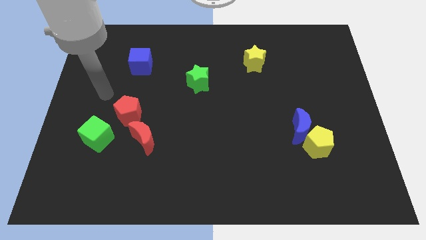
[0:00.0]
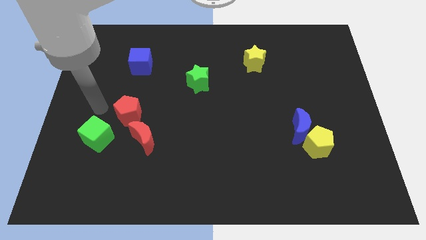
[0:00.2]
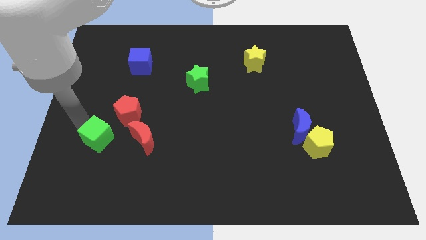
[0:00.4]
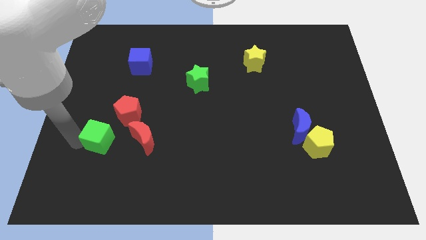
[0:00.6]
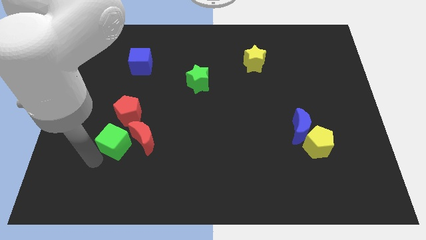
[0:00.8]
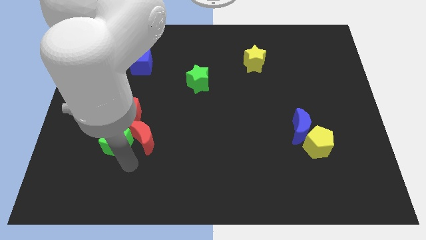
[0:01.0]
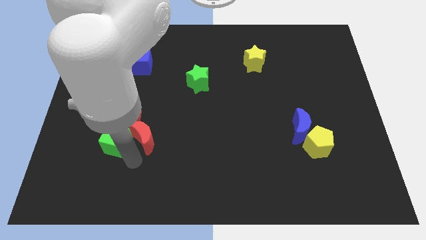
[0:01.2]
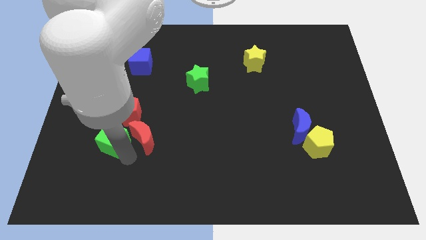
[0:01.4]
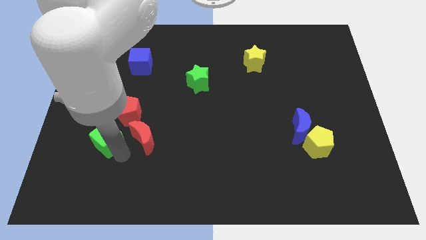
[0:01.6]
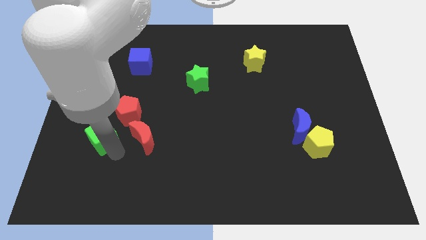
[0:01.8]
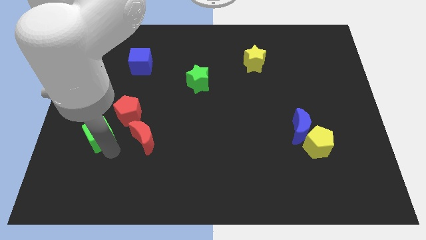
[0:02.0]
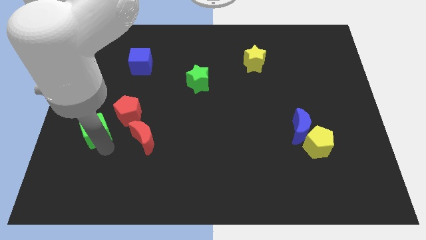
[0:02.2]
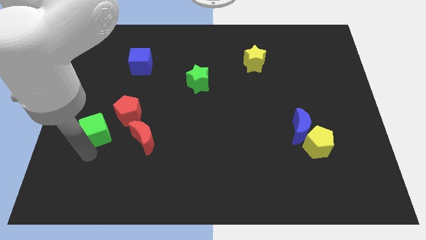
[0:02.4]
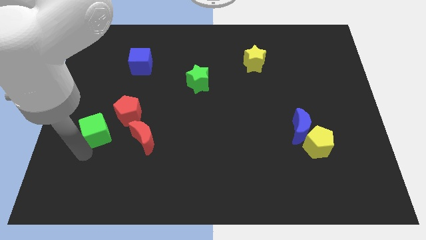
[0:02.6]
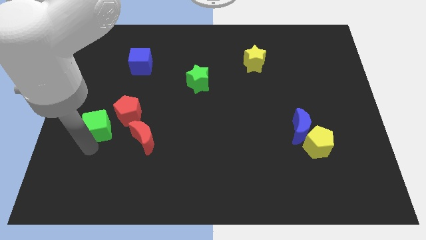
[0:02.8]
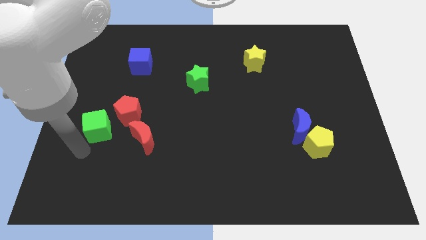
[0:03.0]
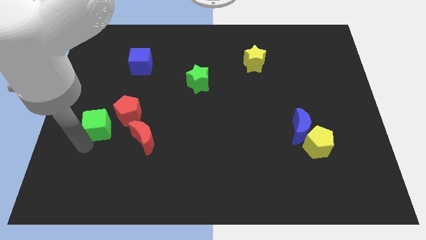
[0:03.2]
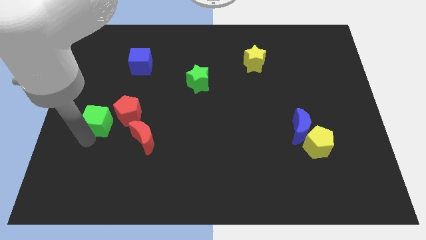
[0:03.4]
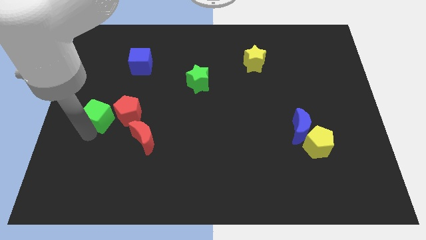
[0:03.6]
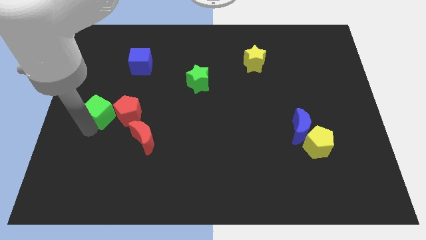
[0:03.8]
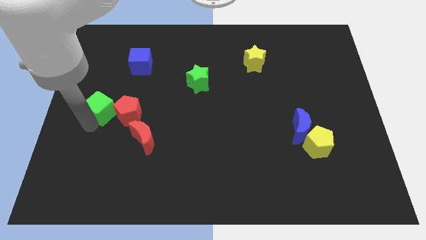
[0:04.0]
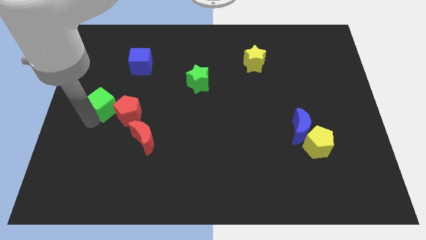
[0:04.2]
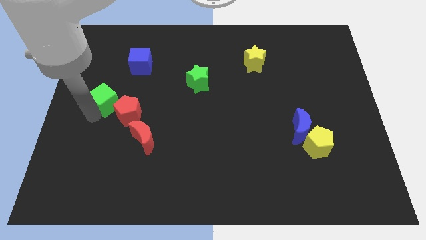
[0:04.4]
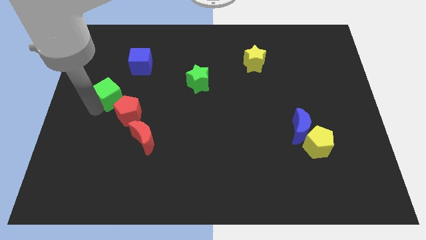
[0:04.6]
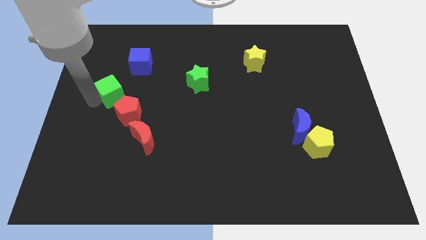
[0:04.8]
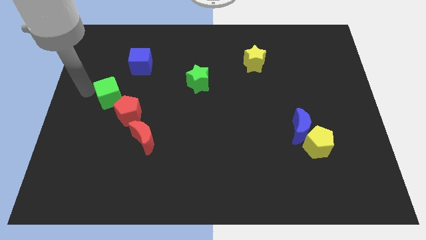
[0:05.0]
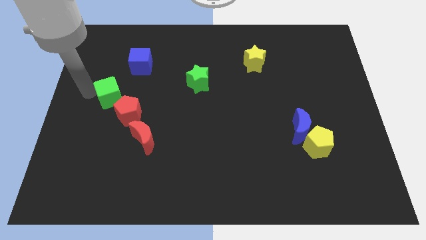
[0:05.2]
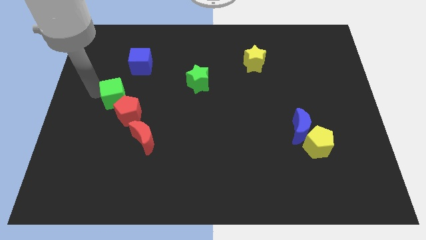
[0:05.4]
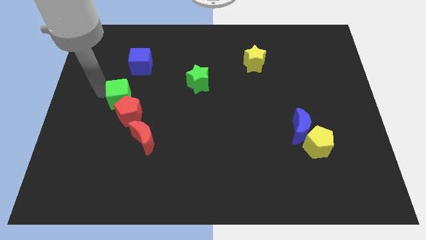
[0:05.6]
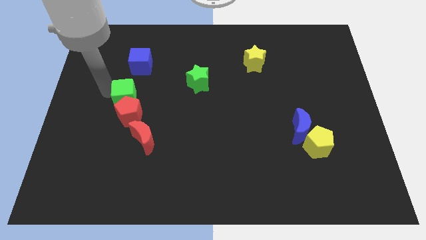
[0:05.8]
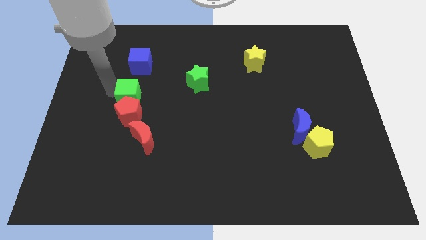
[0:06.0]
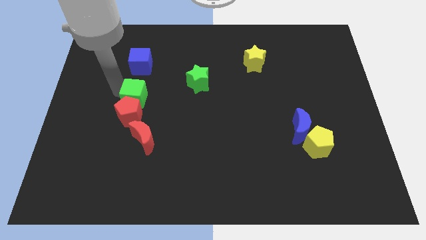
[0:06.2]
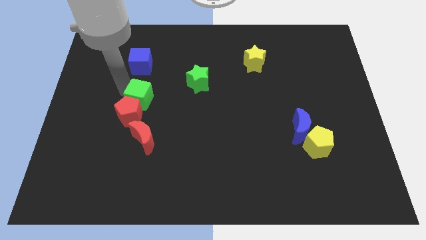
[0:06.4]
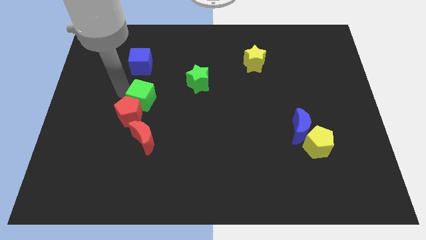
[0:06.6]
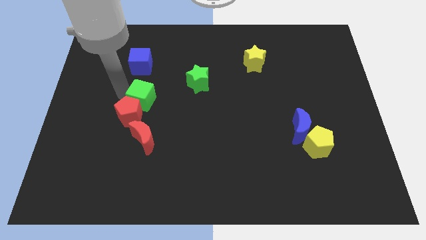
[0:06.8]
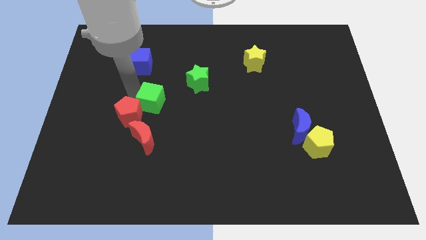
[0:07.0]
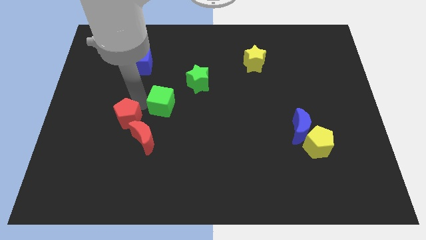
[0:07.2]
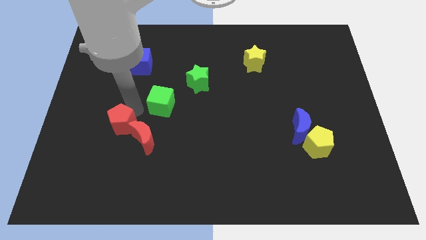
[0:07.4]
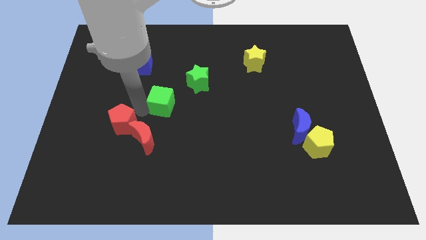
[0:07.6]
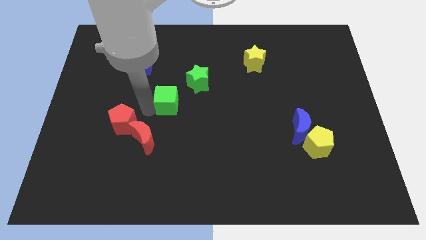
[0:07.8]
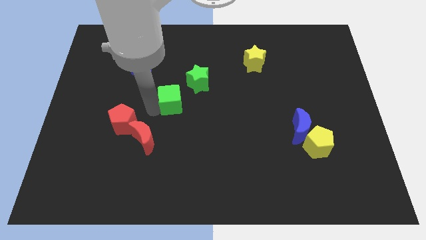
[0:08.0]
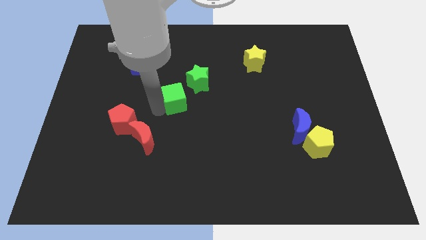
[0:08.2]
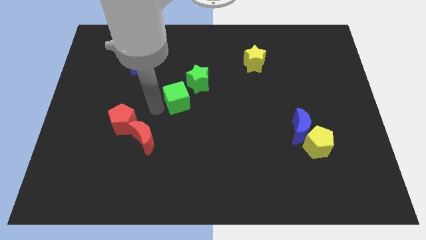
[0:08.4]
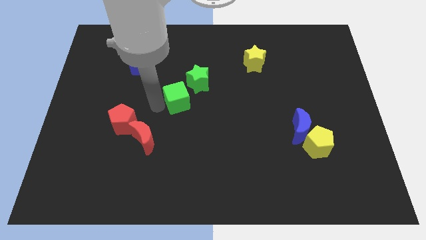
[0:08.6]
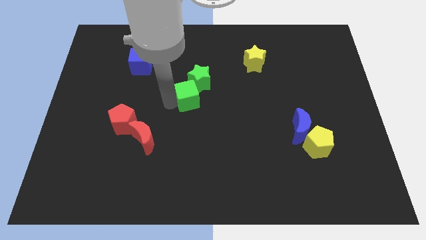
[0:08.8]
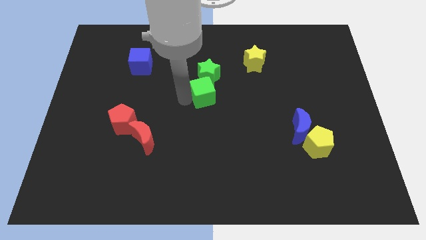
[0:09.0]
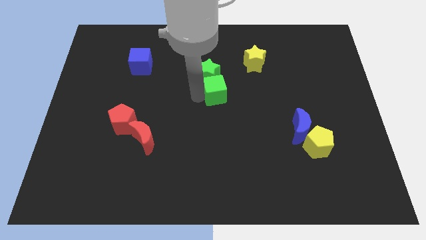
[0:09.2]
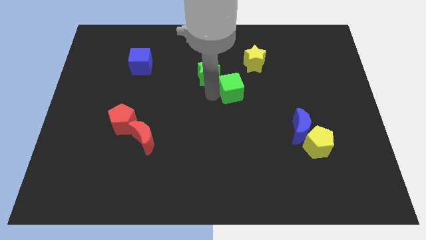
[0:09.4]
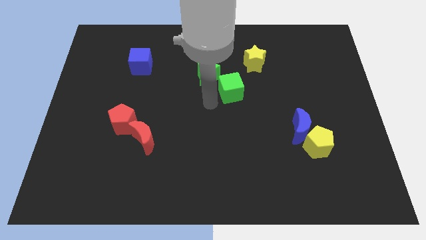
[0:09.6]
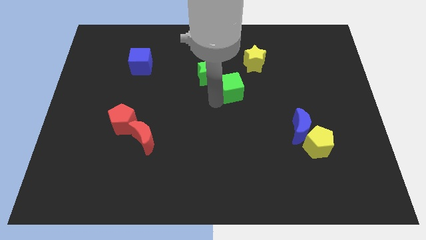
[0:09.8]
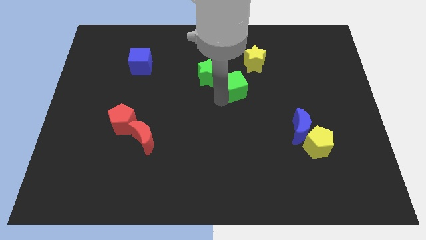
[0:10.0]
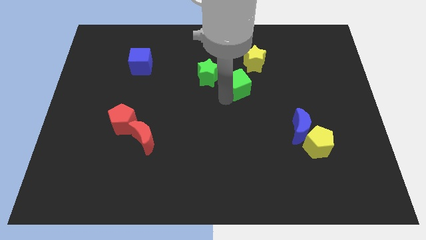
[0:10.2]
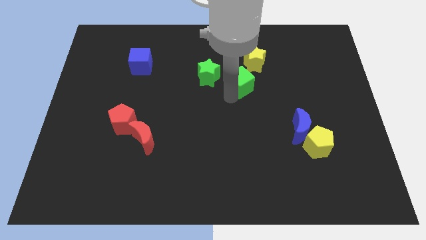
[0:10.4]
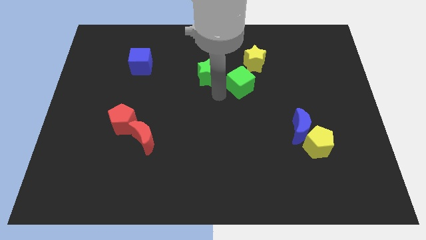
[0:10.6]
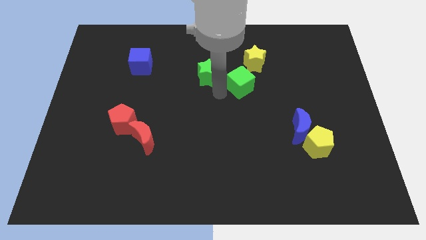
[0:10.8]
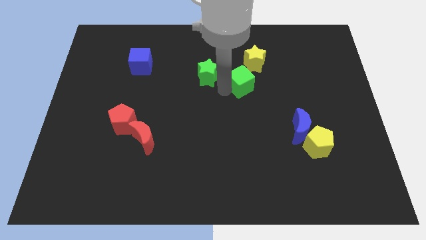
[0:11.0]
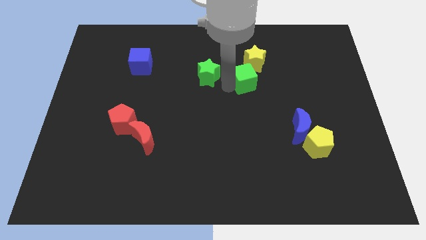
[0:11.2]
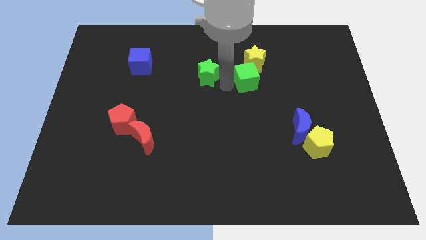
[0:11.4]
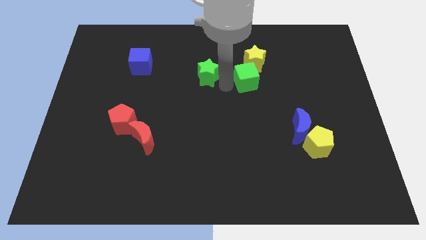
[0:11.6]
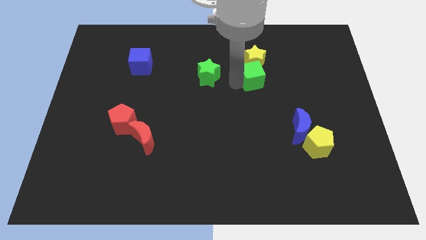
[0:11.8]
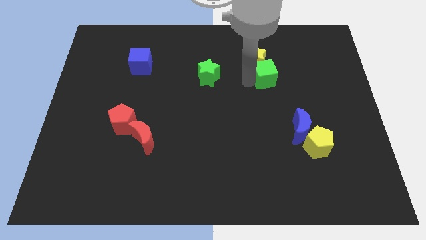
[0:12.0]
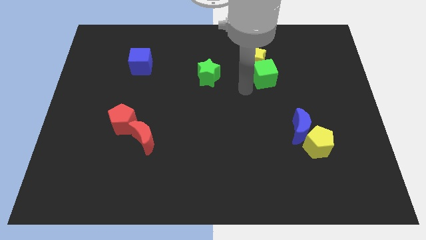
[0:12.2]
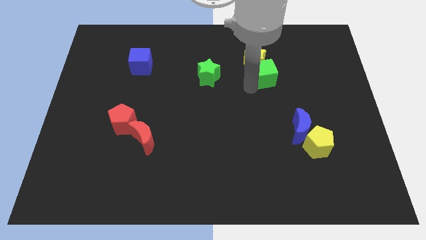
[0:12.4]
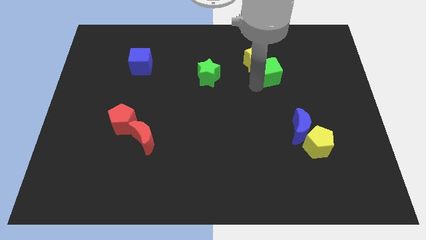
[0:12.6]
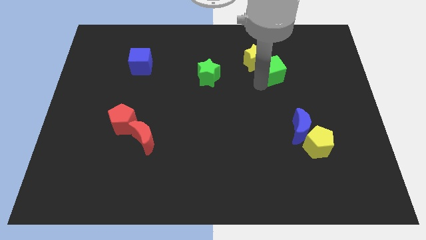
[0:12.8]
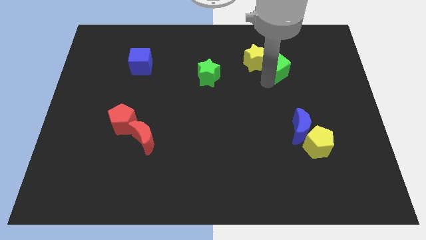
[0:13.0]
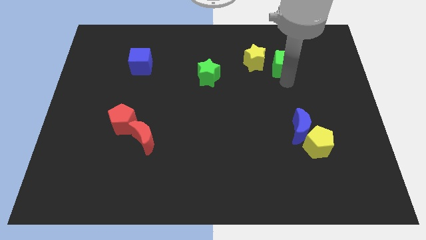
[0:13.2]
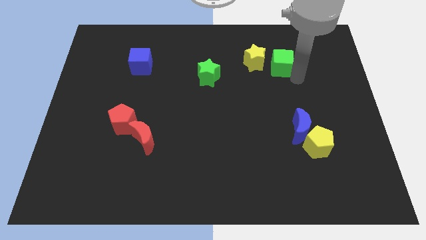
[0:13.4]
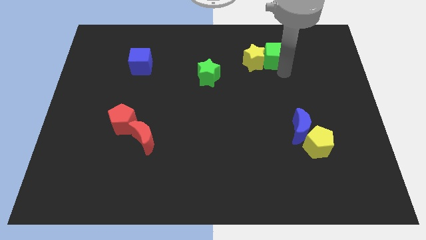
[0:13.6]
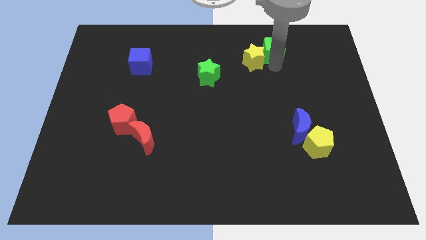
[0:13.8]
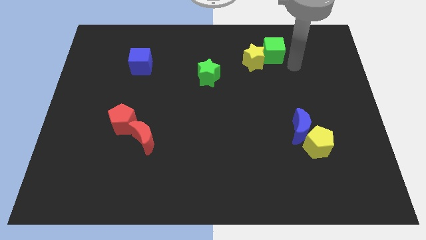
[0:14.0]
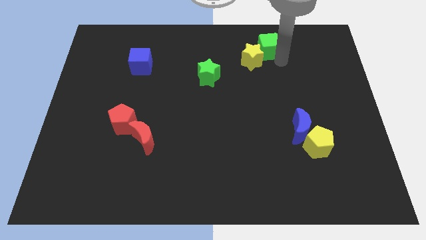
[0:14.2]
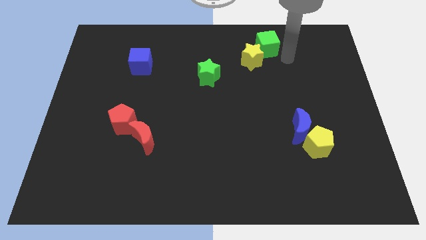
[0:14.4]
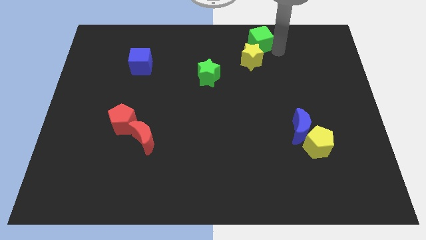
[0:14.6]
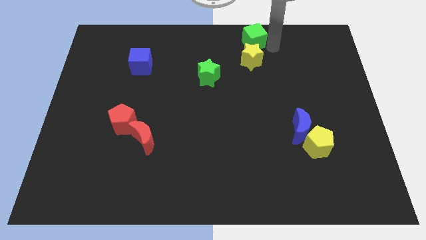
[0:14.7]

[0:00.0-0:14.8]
push the green cube to the top side
